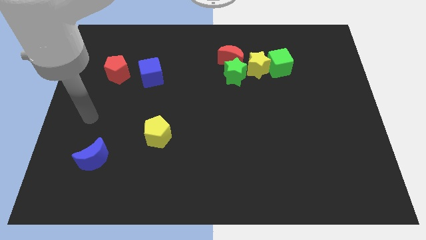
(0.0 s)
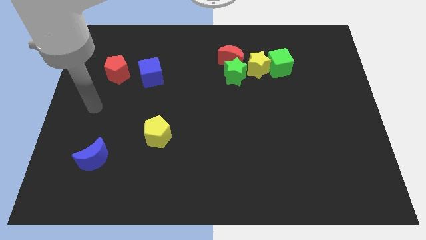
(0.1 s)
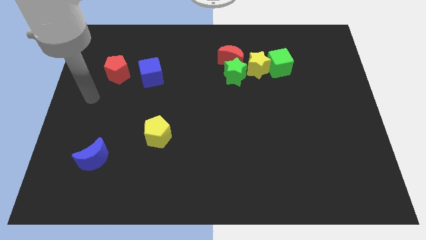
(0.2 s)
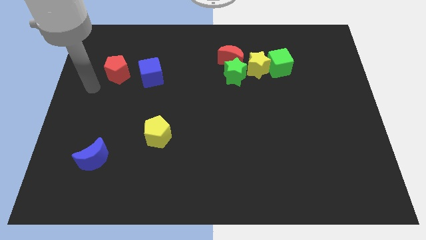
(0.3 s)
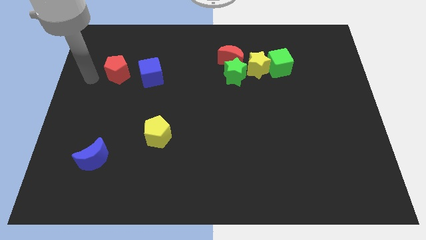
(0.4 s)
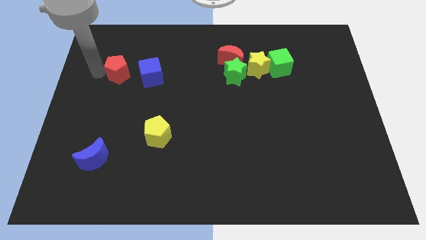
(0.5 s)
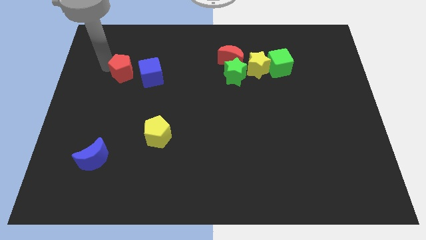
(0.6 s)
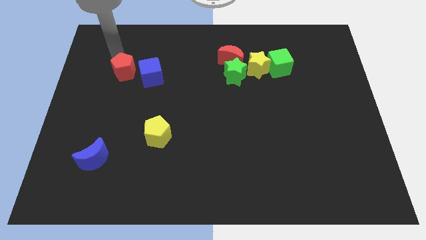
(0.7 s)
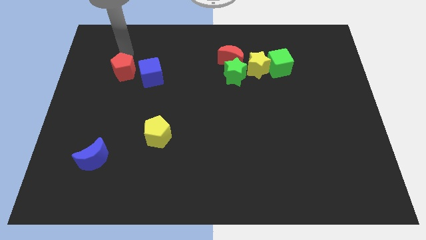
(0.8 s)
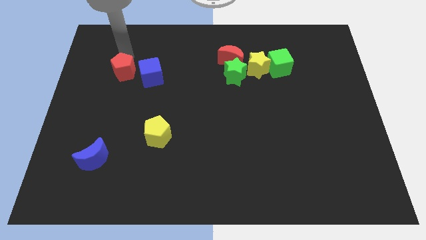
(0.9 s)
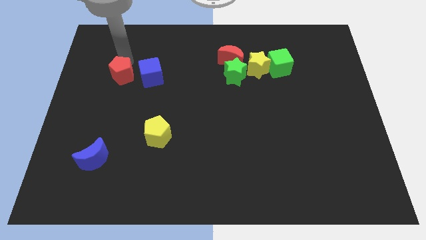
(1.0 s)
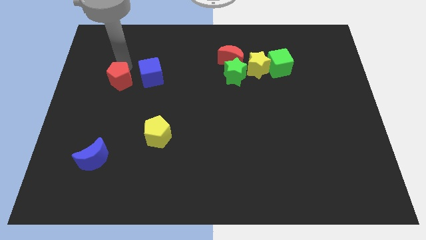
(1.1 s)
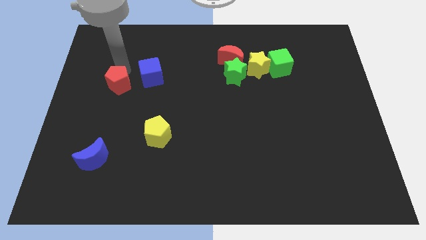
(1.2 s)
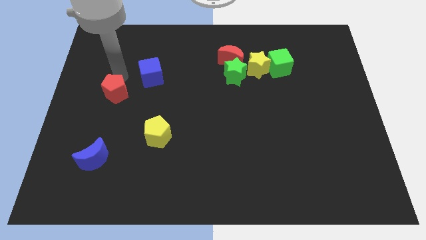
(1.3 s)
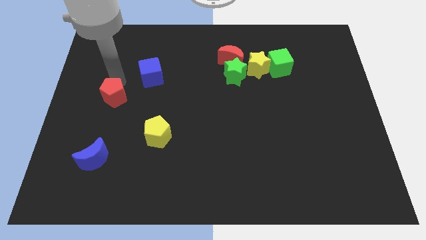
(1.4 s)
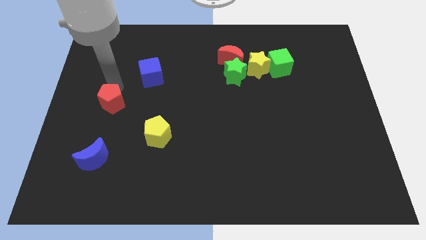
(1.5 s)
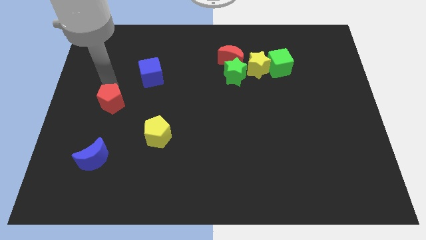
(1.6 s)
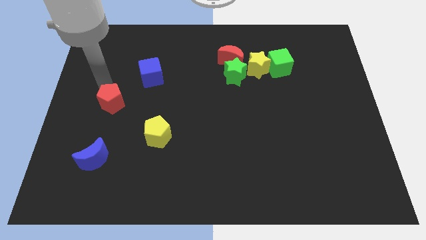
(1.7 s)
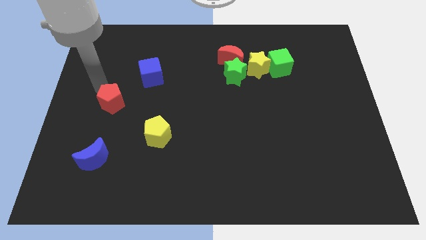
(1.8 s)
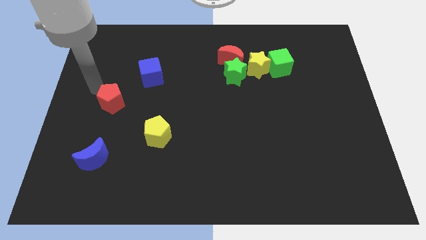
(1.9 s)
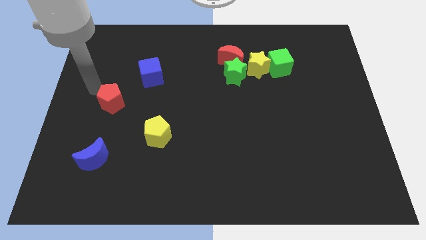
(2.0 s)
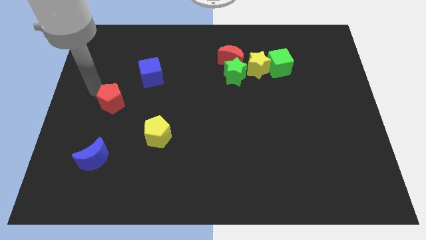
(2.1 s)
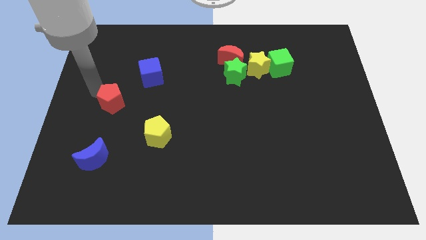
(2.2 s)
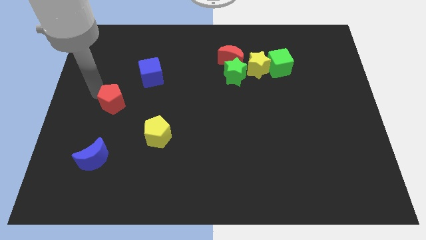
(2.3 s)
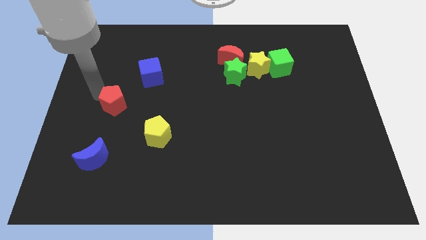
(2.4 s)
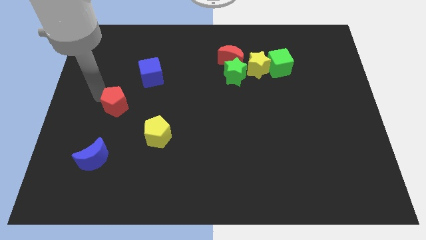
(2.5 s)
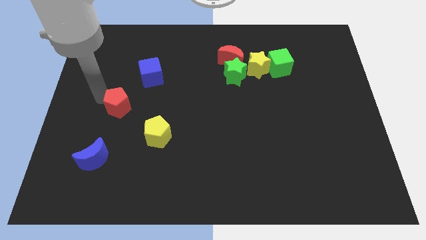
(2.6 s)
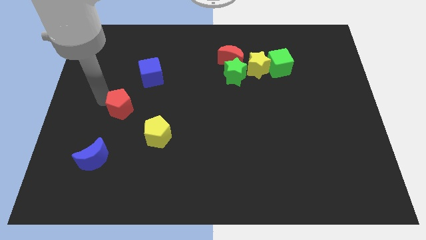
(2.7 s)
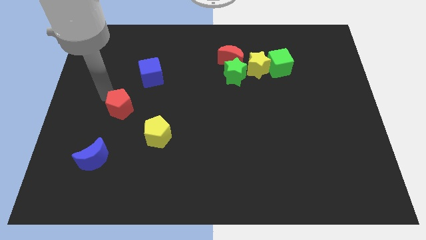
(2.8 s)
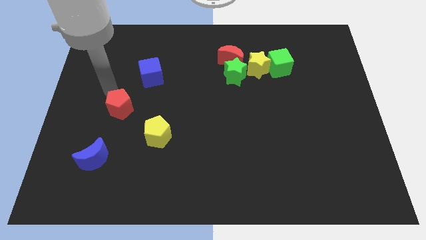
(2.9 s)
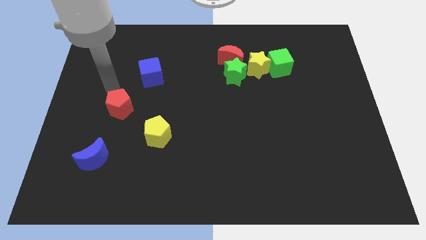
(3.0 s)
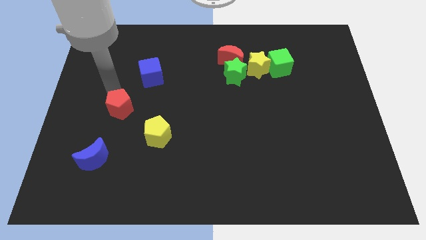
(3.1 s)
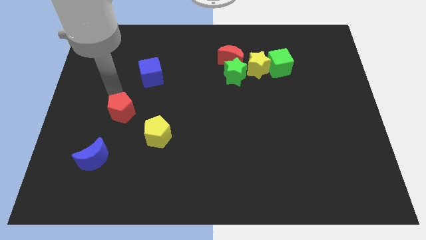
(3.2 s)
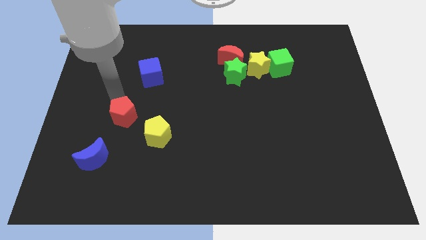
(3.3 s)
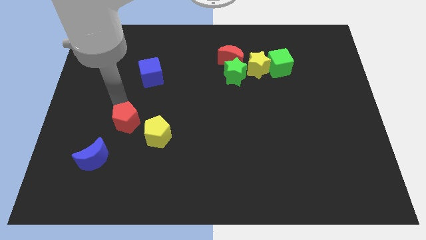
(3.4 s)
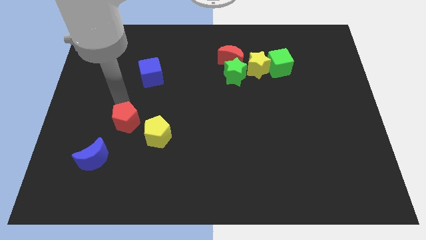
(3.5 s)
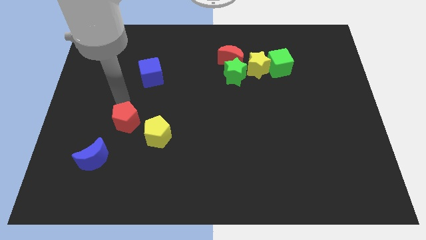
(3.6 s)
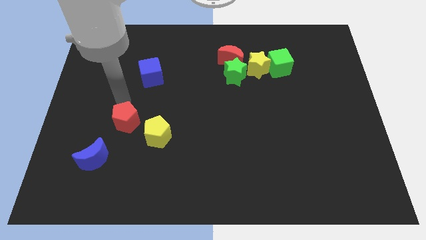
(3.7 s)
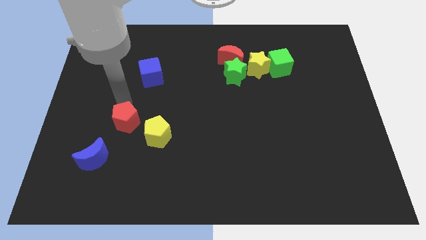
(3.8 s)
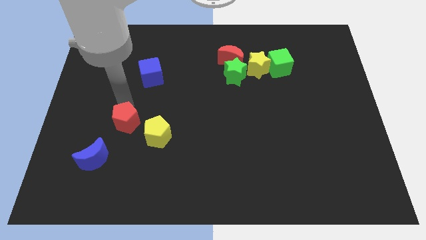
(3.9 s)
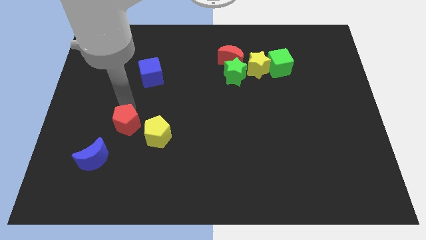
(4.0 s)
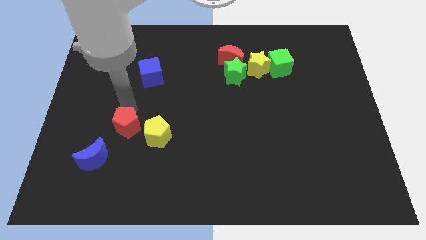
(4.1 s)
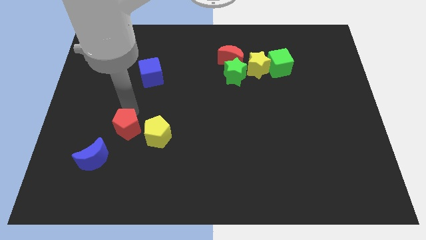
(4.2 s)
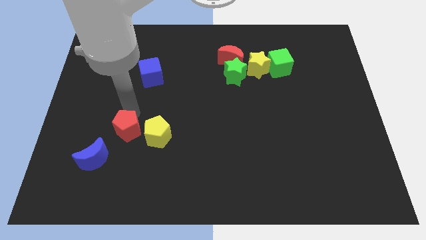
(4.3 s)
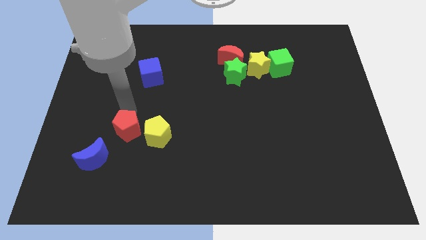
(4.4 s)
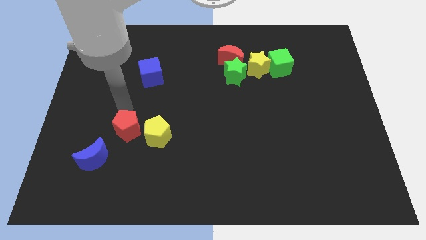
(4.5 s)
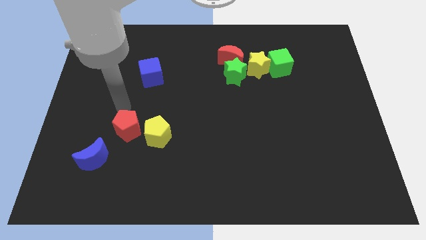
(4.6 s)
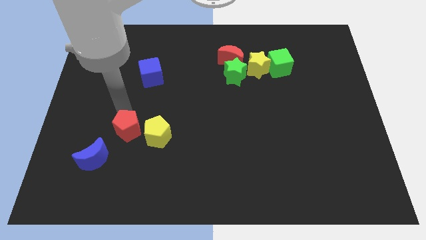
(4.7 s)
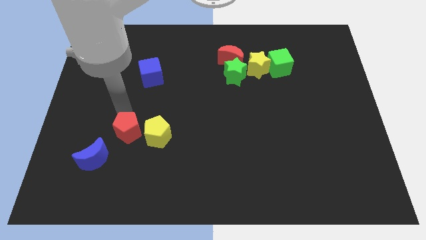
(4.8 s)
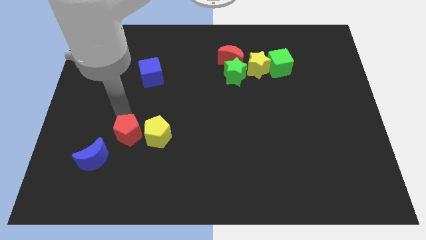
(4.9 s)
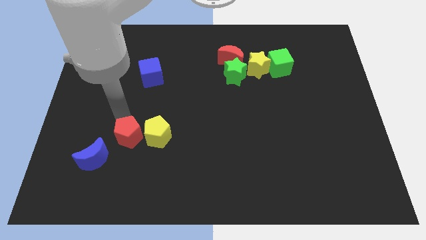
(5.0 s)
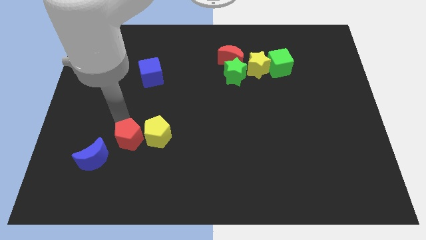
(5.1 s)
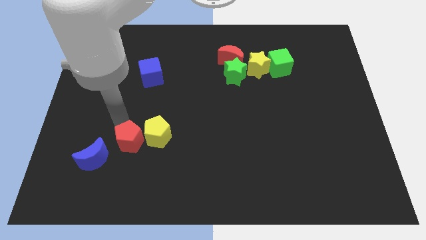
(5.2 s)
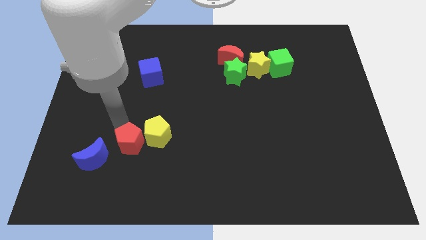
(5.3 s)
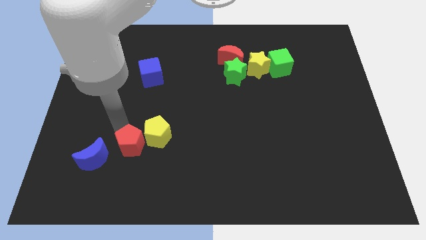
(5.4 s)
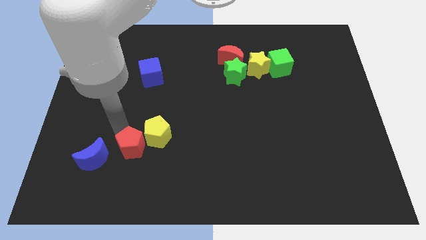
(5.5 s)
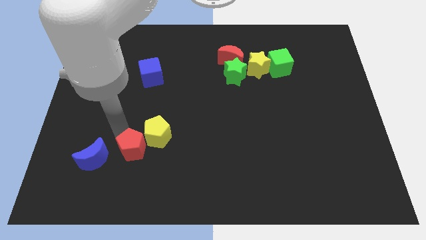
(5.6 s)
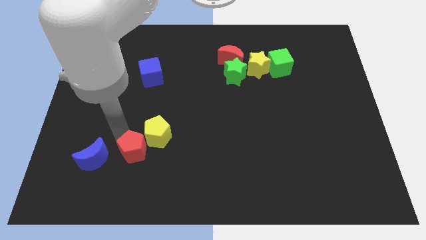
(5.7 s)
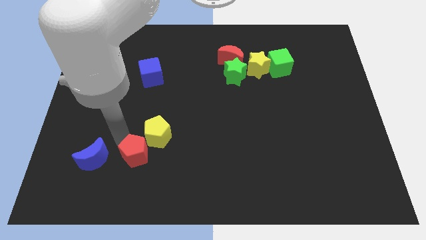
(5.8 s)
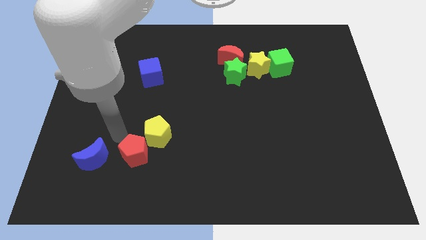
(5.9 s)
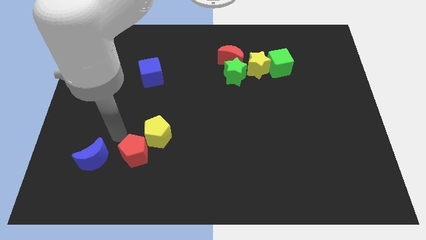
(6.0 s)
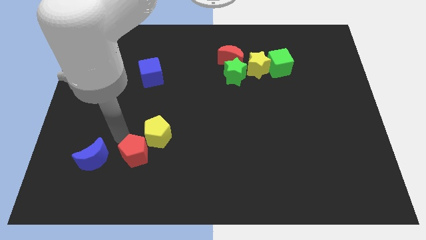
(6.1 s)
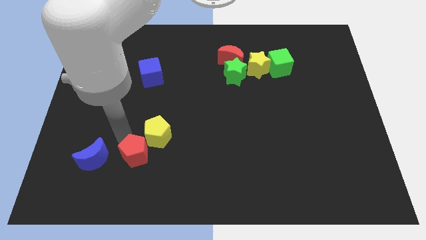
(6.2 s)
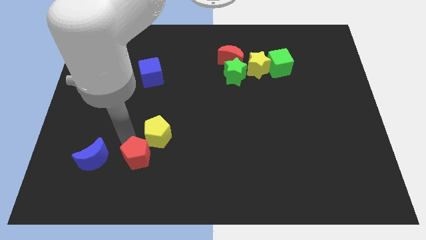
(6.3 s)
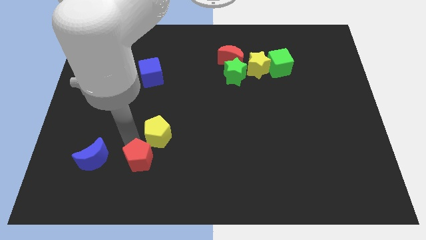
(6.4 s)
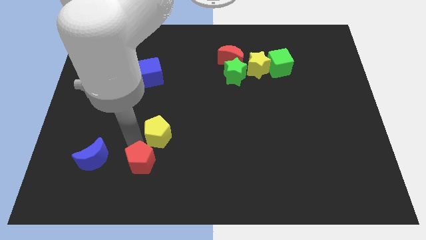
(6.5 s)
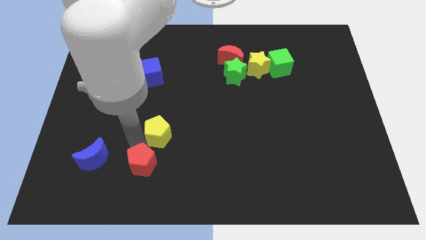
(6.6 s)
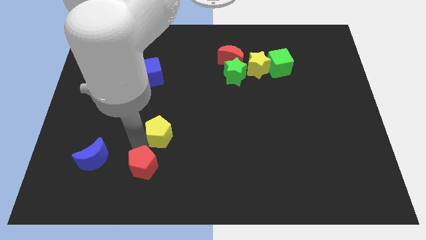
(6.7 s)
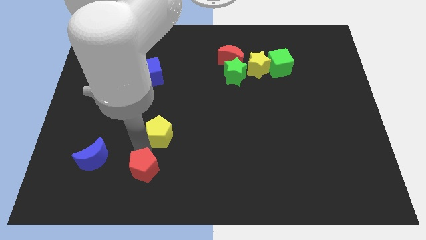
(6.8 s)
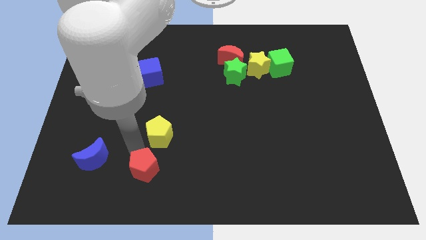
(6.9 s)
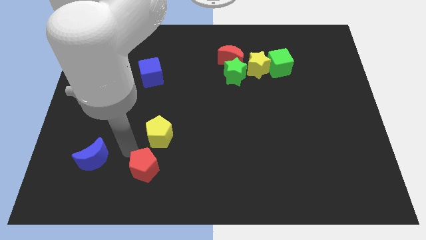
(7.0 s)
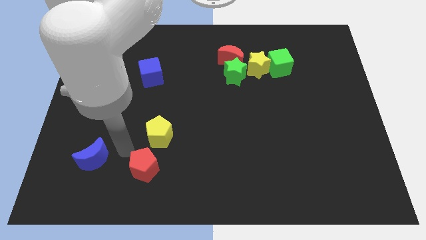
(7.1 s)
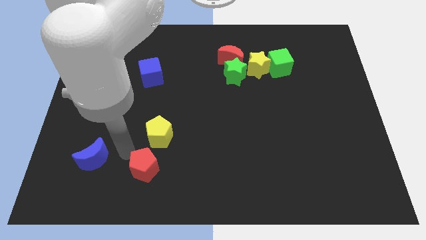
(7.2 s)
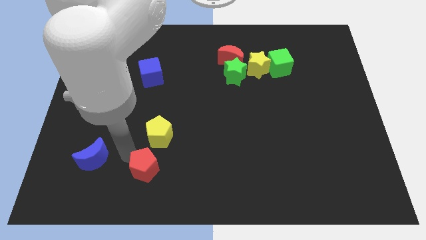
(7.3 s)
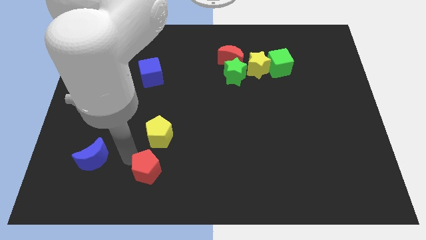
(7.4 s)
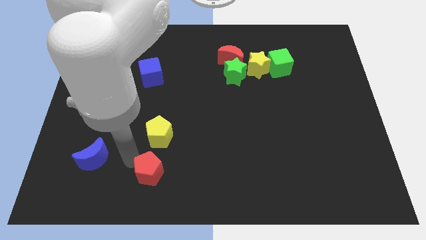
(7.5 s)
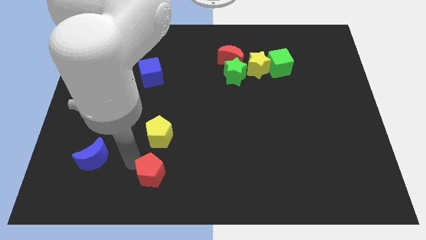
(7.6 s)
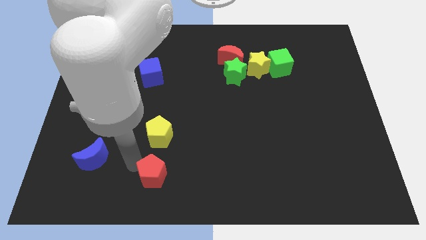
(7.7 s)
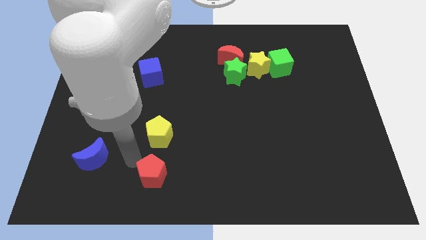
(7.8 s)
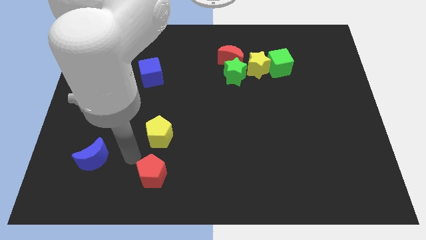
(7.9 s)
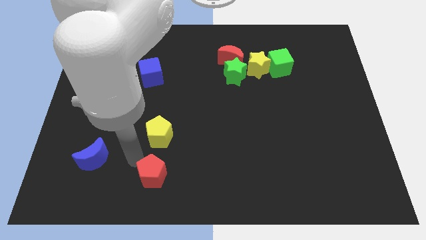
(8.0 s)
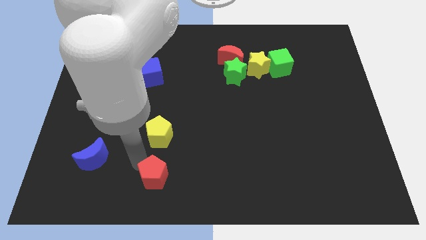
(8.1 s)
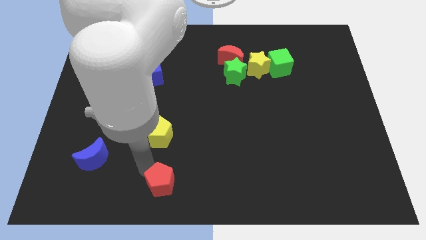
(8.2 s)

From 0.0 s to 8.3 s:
slide the red pentagon to the bottom
